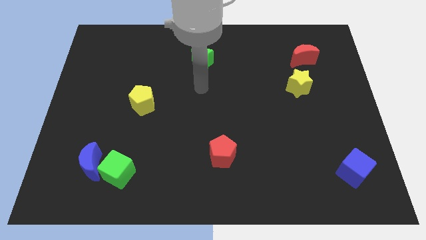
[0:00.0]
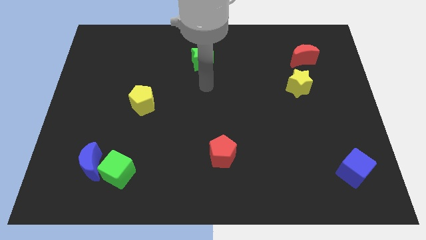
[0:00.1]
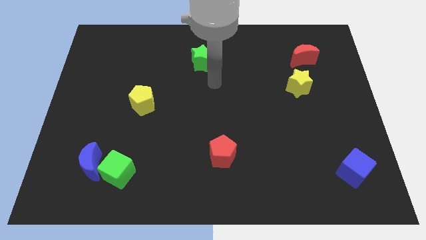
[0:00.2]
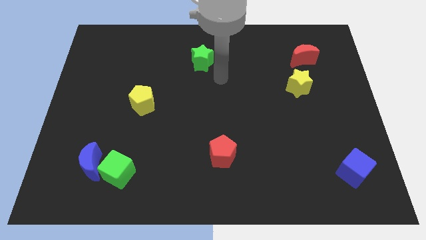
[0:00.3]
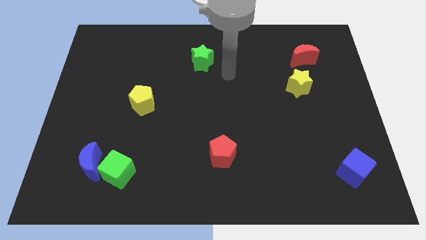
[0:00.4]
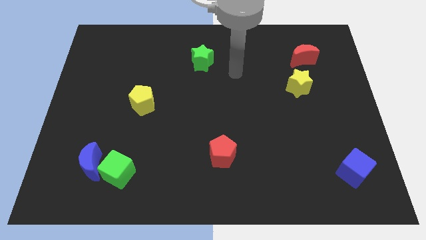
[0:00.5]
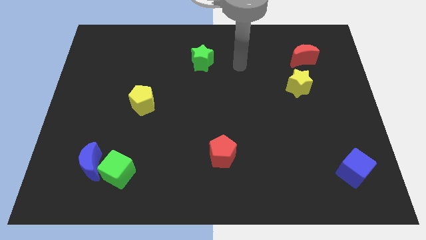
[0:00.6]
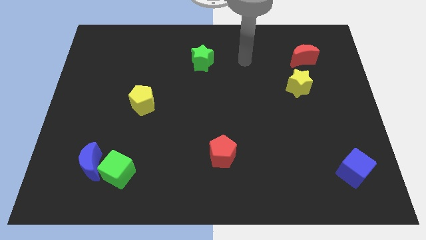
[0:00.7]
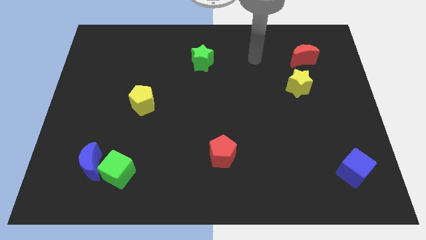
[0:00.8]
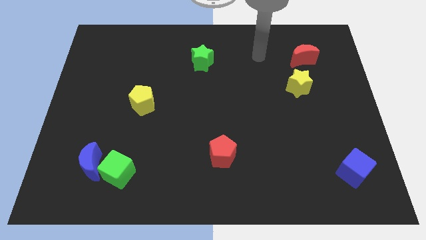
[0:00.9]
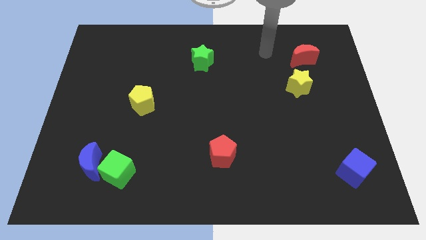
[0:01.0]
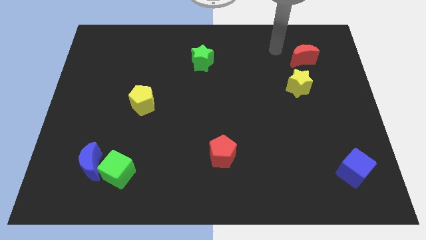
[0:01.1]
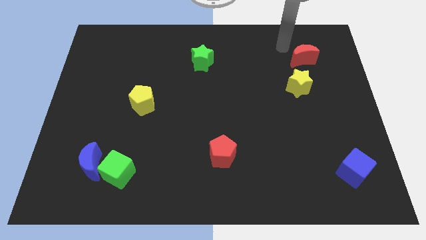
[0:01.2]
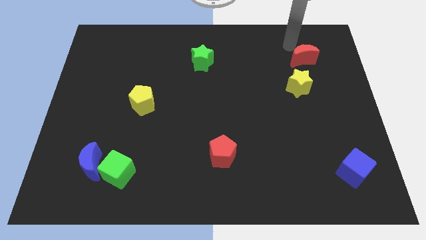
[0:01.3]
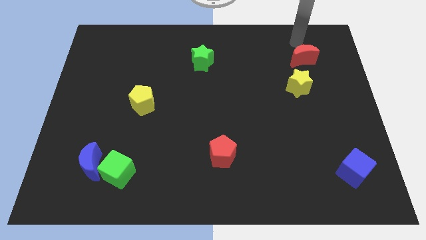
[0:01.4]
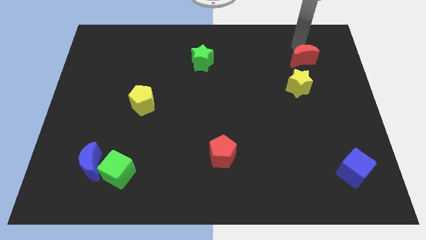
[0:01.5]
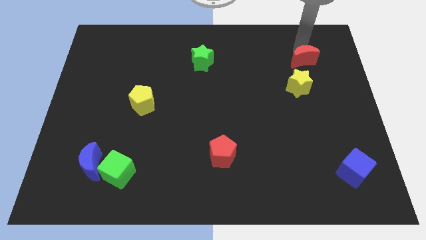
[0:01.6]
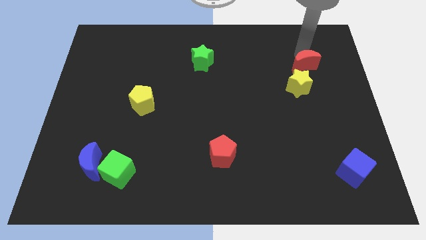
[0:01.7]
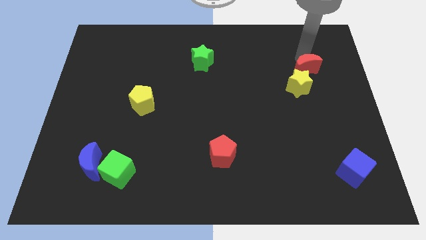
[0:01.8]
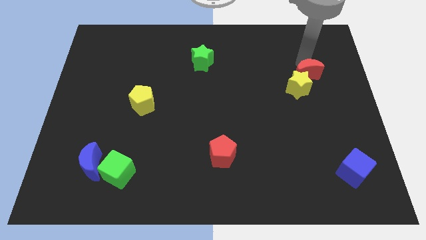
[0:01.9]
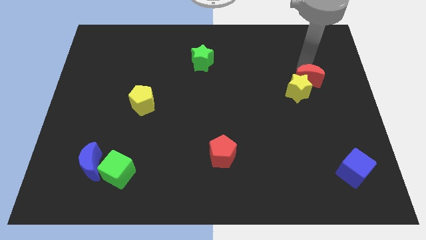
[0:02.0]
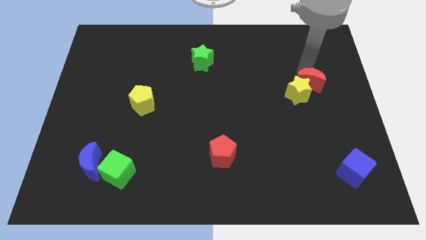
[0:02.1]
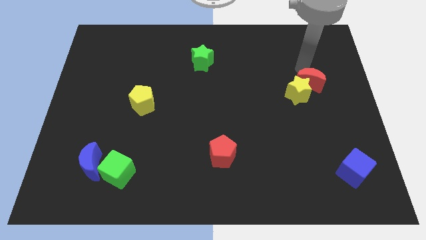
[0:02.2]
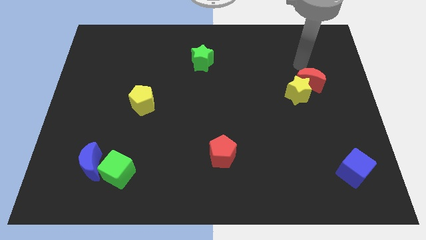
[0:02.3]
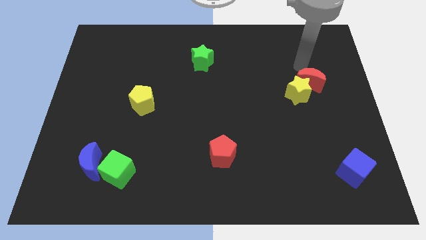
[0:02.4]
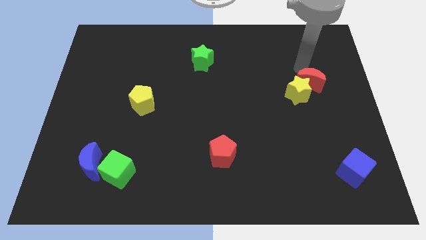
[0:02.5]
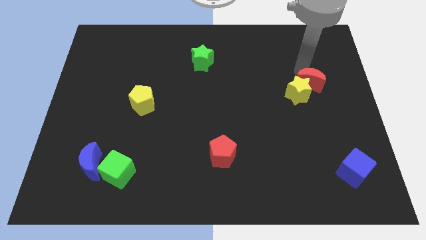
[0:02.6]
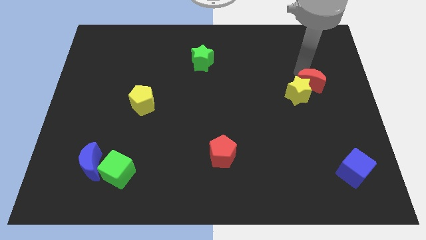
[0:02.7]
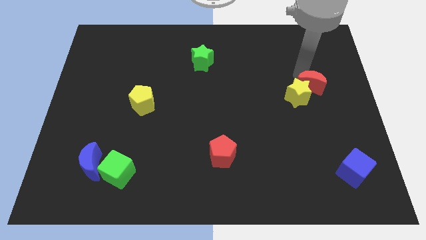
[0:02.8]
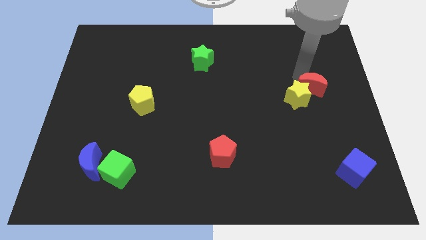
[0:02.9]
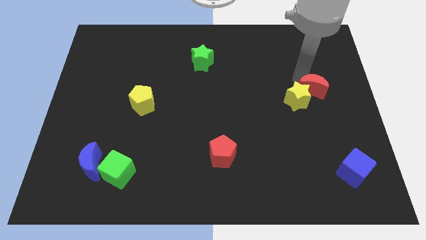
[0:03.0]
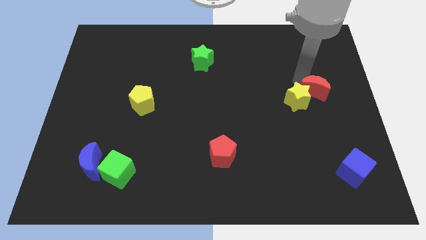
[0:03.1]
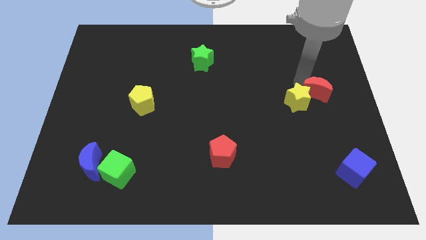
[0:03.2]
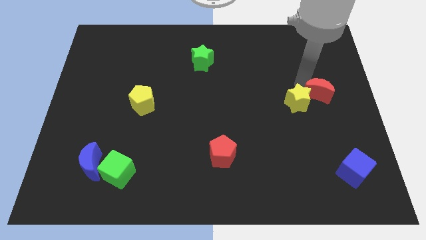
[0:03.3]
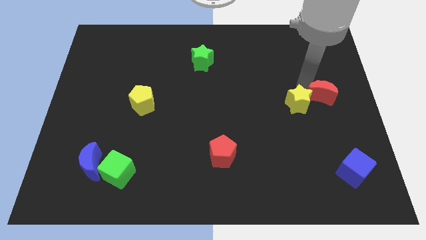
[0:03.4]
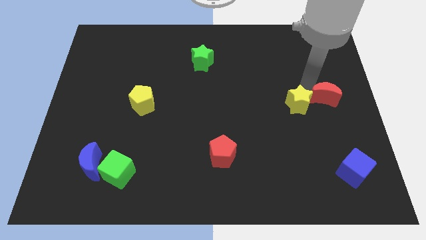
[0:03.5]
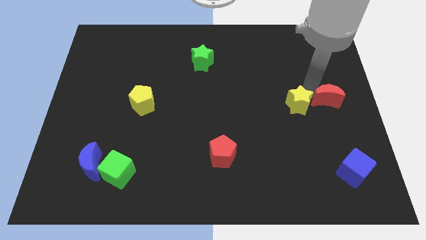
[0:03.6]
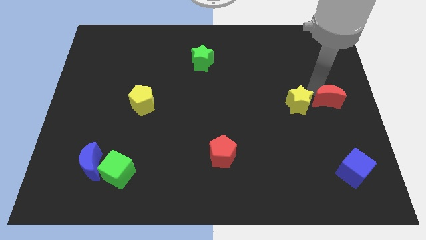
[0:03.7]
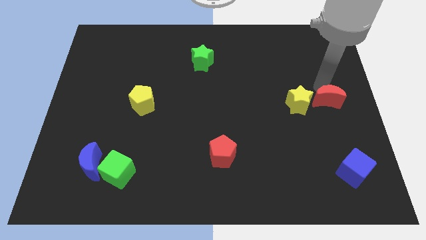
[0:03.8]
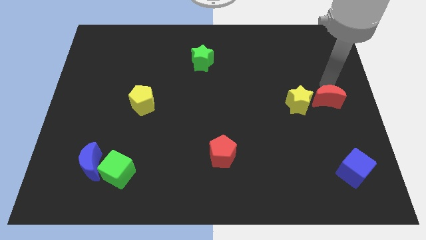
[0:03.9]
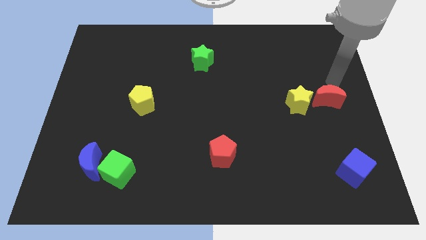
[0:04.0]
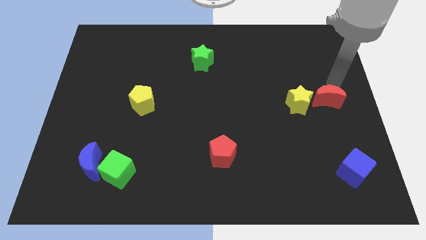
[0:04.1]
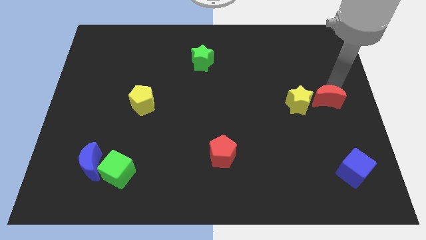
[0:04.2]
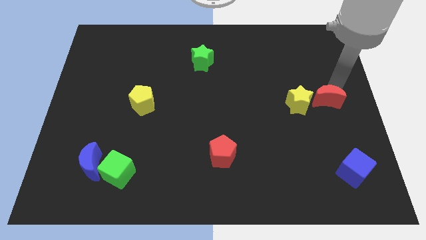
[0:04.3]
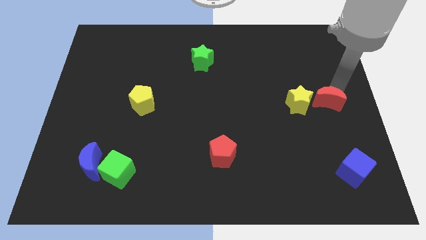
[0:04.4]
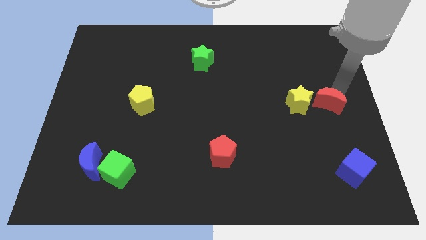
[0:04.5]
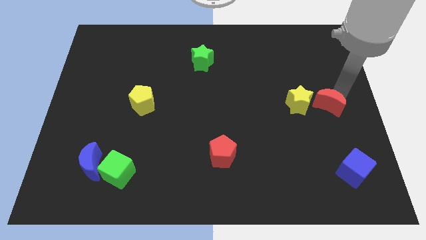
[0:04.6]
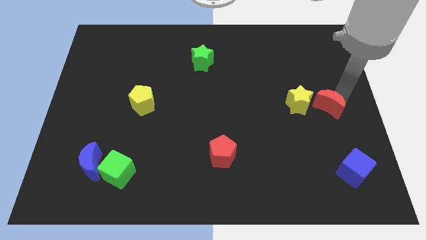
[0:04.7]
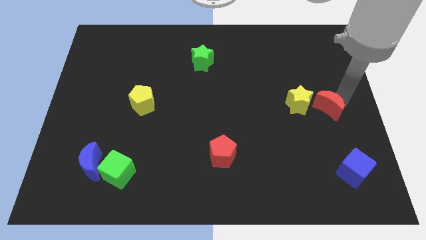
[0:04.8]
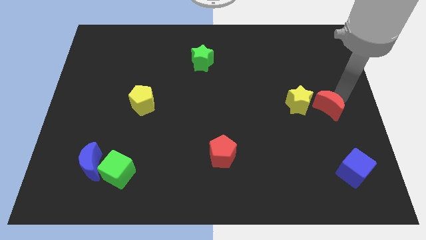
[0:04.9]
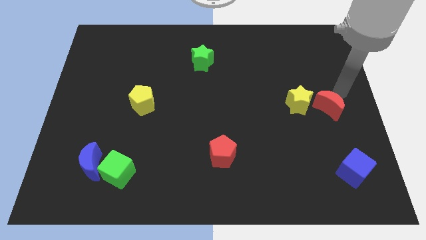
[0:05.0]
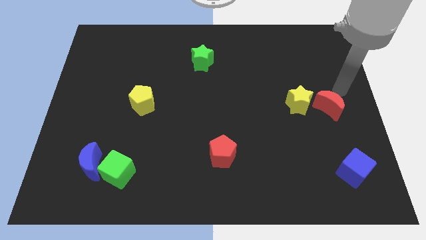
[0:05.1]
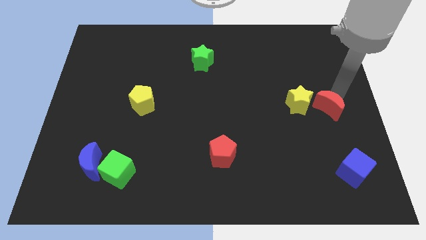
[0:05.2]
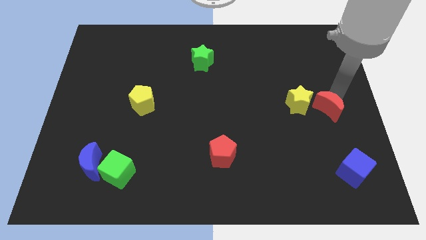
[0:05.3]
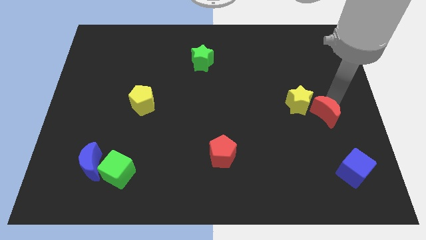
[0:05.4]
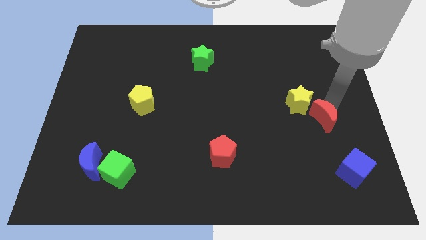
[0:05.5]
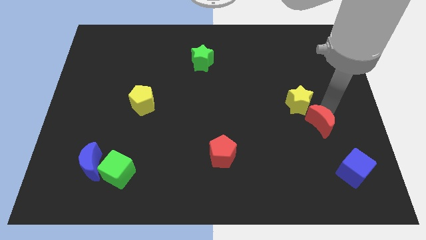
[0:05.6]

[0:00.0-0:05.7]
move the red moon downwards

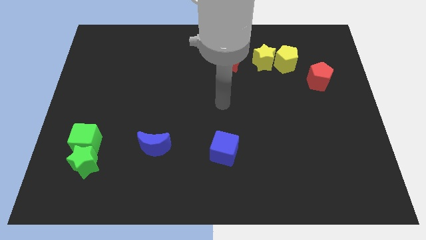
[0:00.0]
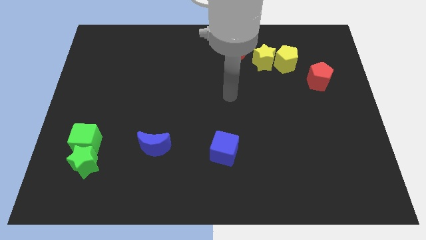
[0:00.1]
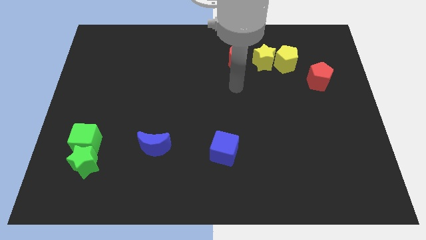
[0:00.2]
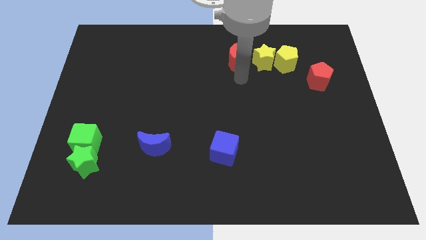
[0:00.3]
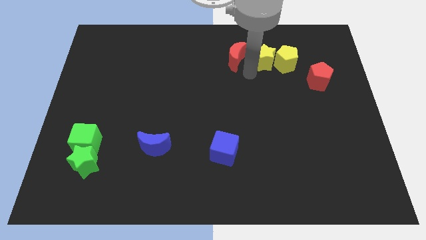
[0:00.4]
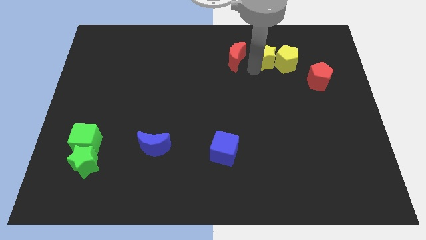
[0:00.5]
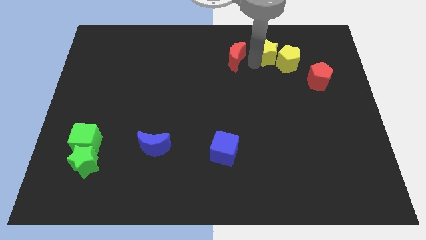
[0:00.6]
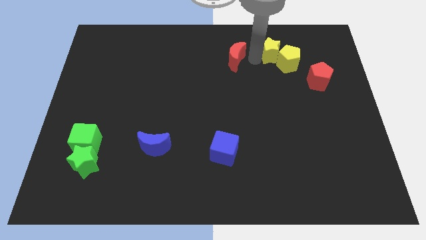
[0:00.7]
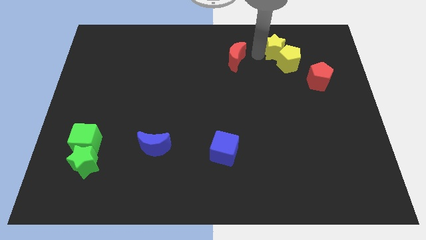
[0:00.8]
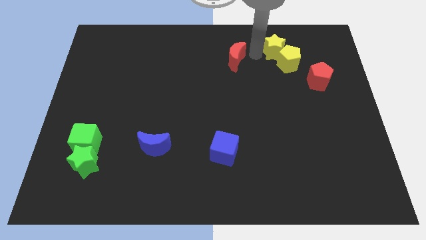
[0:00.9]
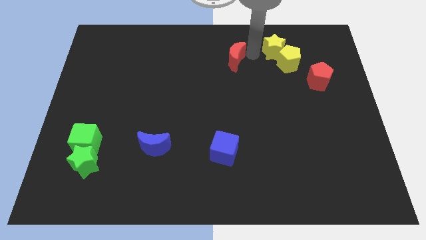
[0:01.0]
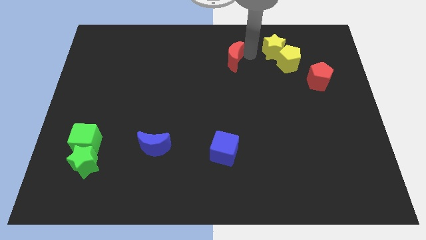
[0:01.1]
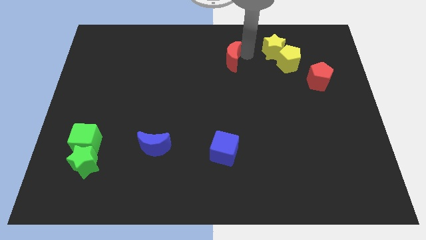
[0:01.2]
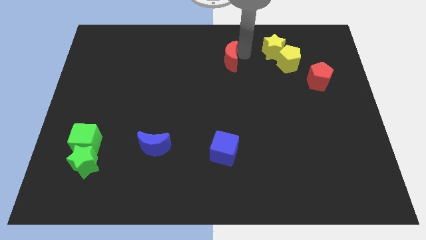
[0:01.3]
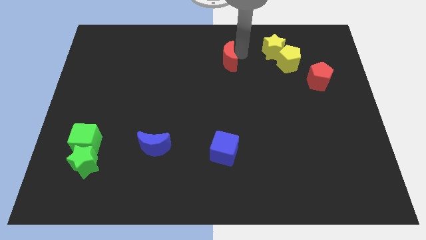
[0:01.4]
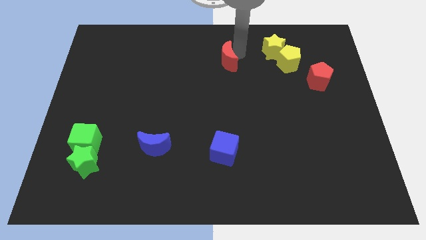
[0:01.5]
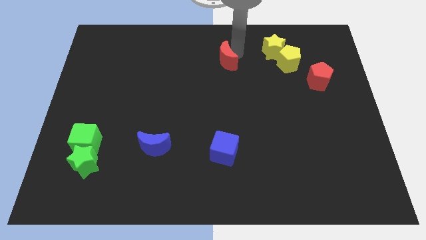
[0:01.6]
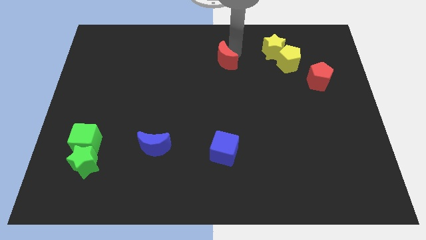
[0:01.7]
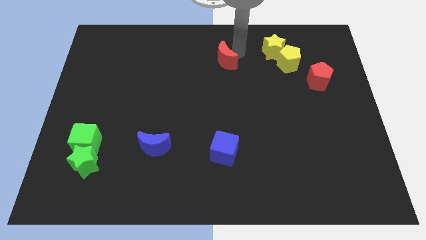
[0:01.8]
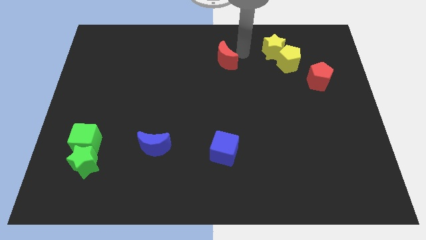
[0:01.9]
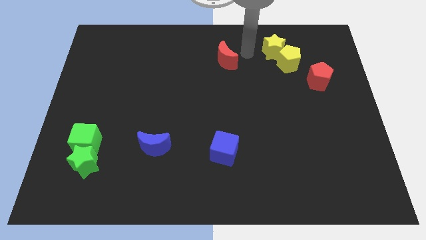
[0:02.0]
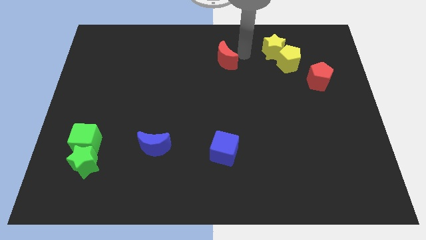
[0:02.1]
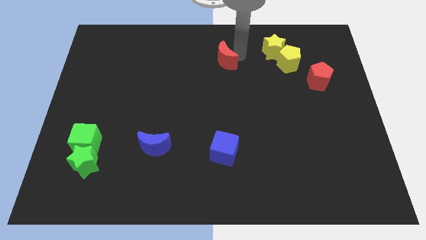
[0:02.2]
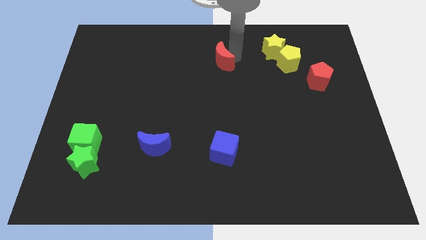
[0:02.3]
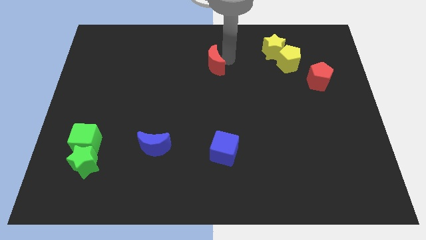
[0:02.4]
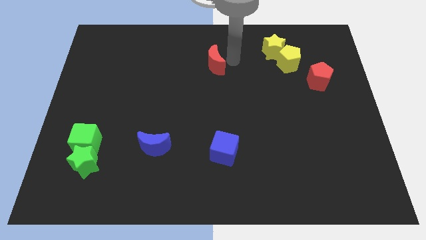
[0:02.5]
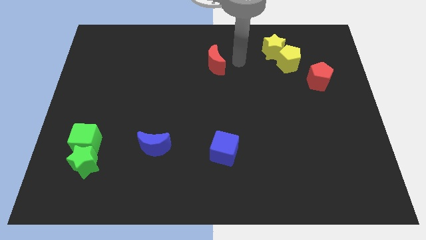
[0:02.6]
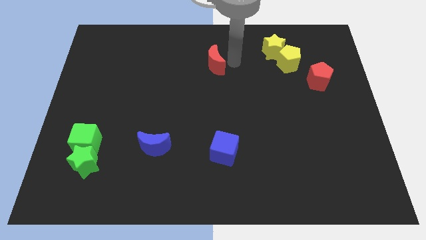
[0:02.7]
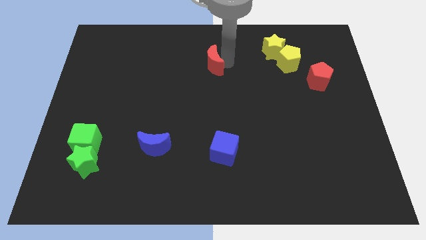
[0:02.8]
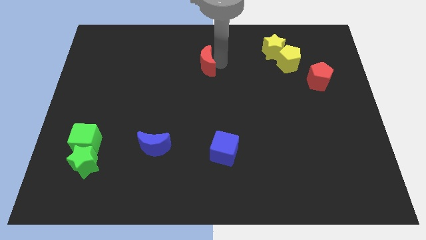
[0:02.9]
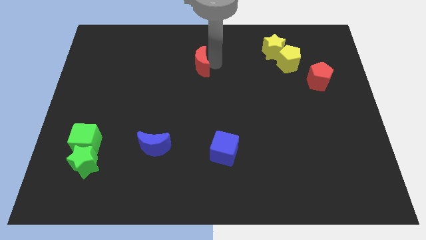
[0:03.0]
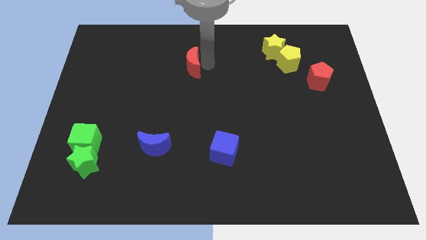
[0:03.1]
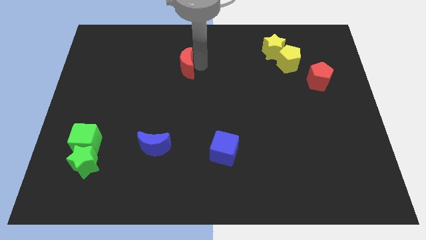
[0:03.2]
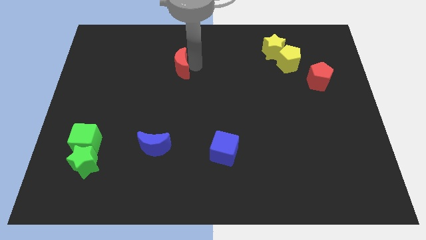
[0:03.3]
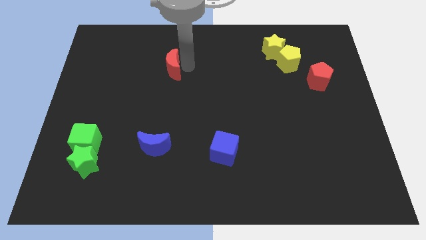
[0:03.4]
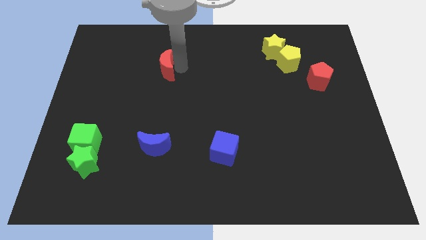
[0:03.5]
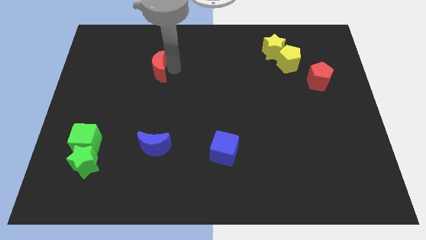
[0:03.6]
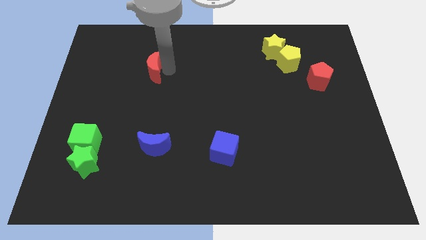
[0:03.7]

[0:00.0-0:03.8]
move the red moon to the left
